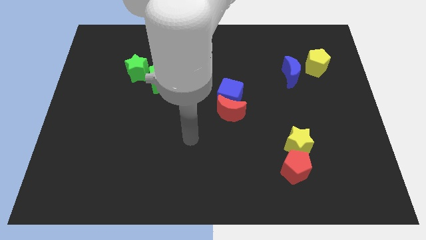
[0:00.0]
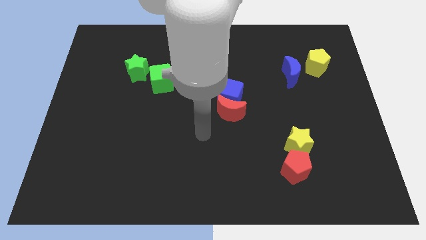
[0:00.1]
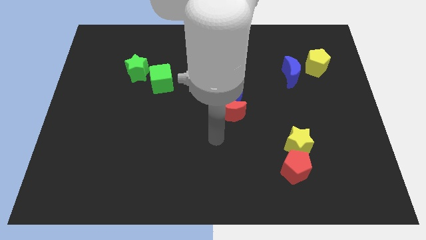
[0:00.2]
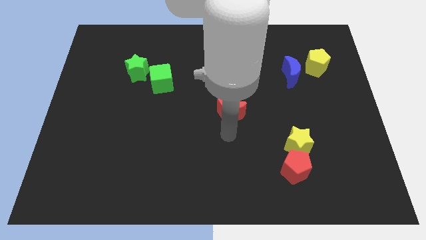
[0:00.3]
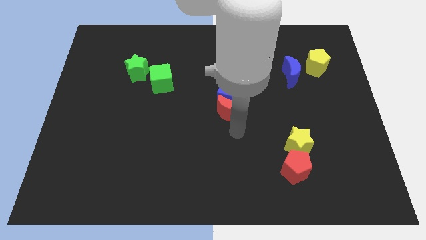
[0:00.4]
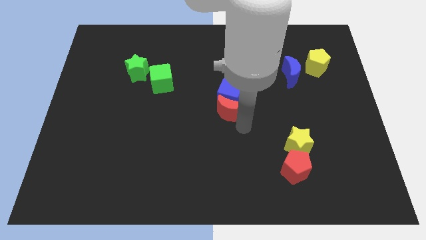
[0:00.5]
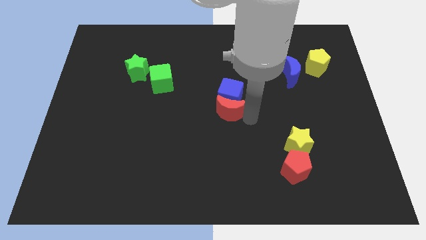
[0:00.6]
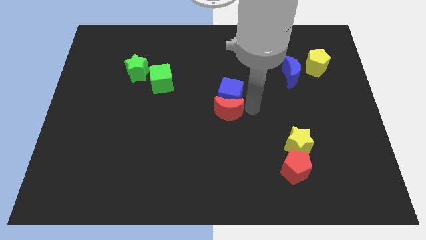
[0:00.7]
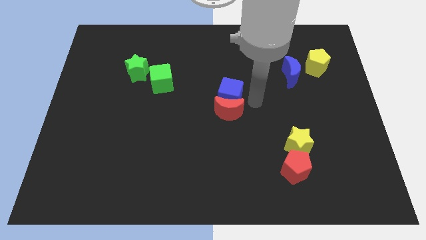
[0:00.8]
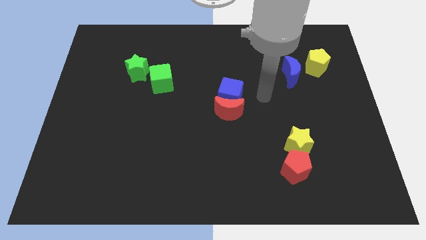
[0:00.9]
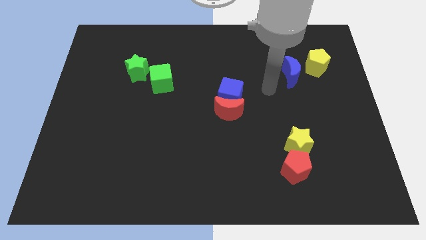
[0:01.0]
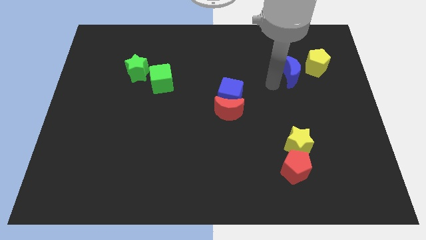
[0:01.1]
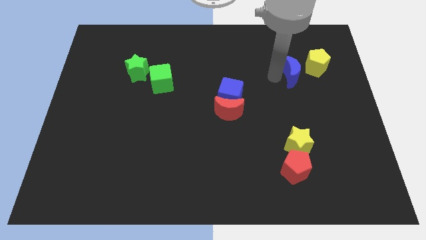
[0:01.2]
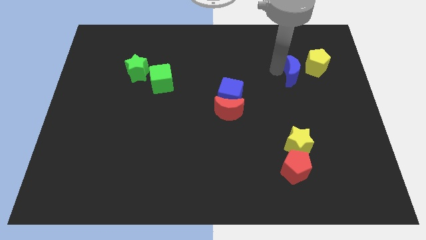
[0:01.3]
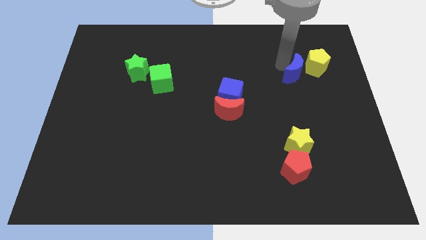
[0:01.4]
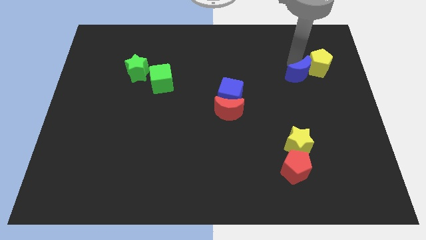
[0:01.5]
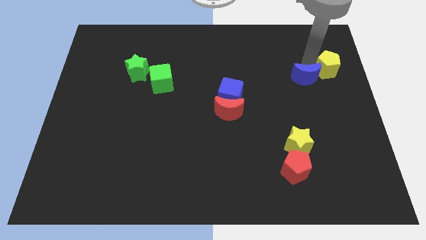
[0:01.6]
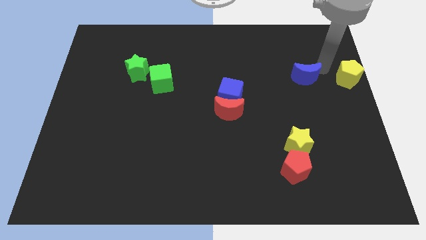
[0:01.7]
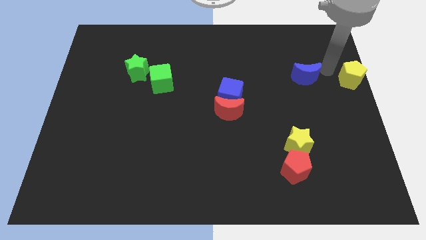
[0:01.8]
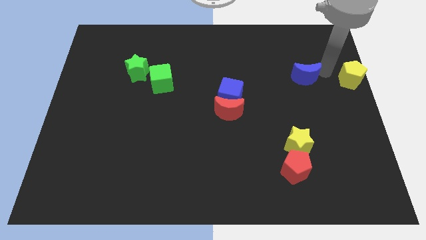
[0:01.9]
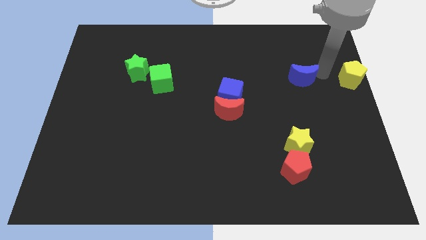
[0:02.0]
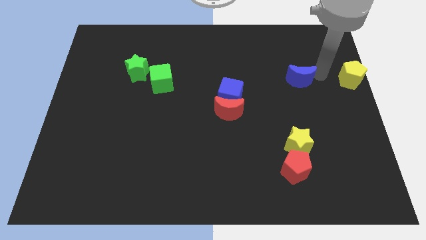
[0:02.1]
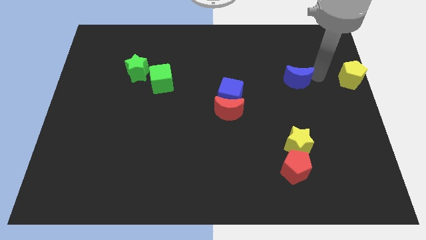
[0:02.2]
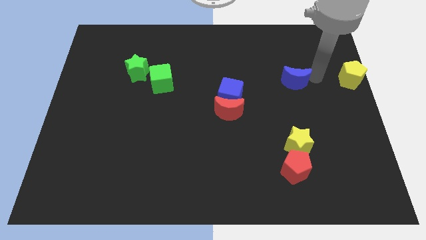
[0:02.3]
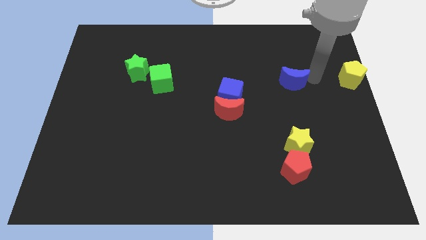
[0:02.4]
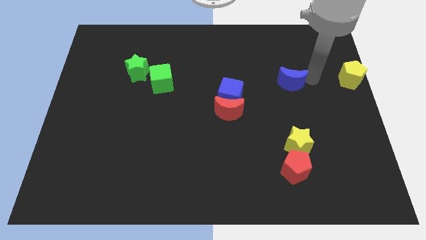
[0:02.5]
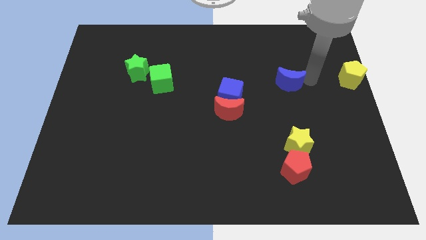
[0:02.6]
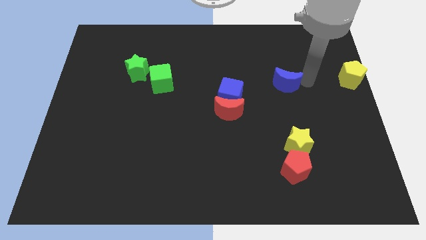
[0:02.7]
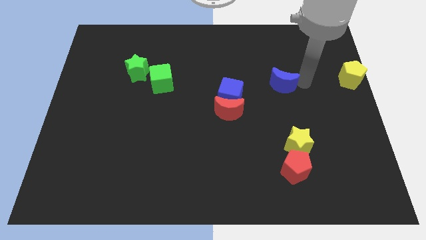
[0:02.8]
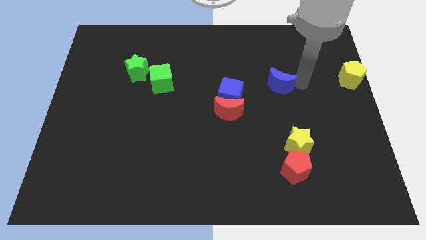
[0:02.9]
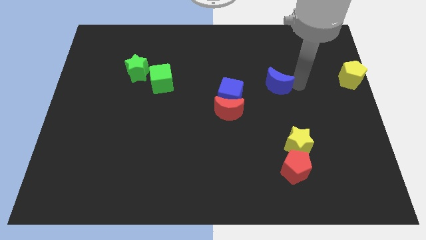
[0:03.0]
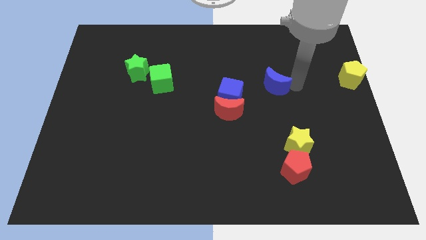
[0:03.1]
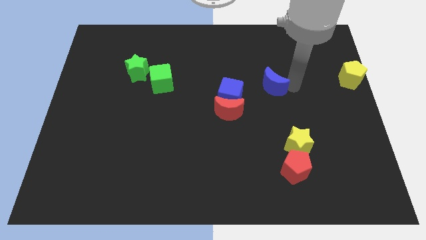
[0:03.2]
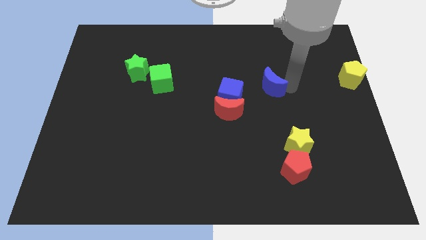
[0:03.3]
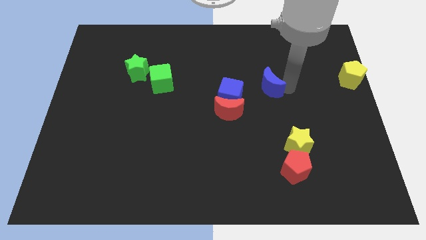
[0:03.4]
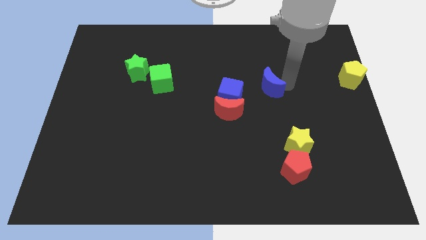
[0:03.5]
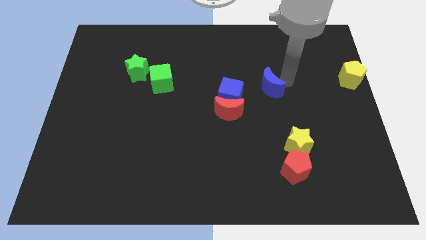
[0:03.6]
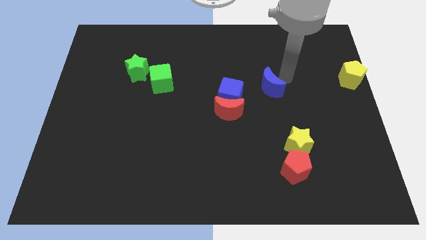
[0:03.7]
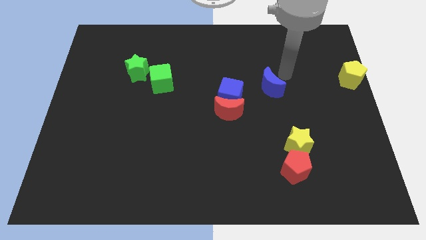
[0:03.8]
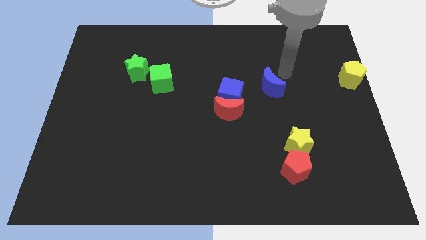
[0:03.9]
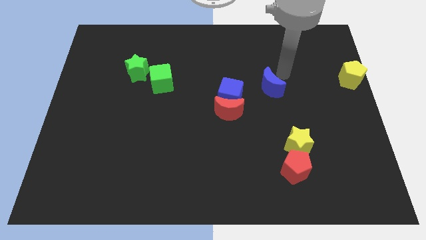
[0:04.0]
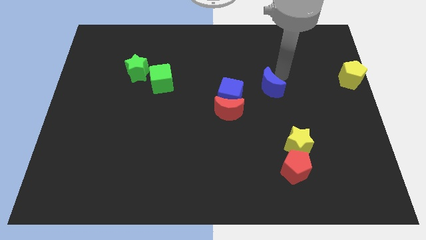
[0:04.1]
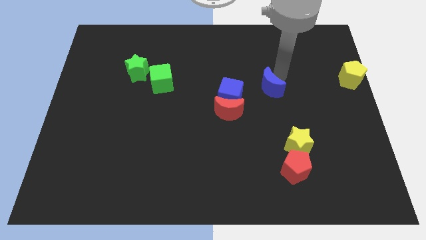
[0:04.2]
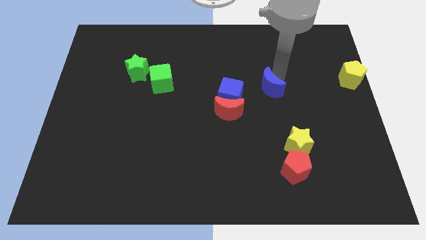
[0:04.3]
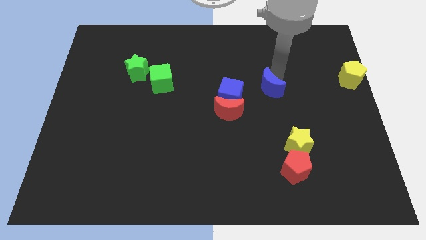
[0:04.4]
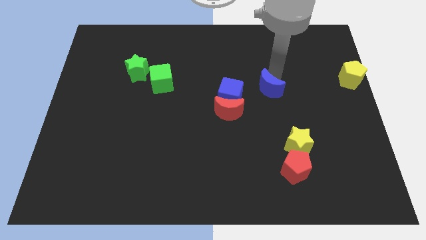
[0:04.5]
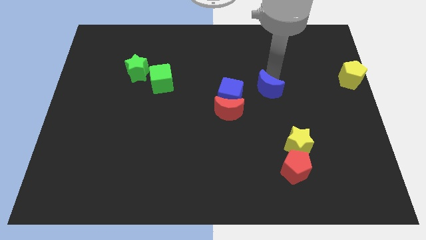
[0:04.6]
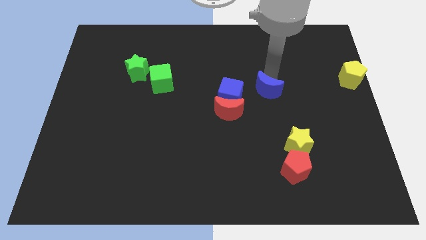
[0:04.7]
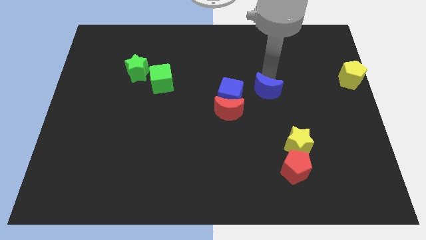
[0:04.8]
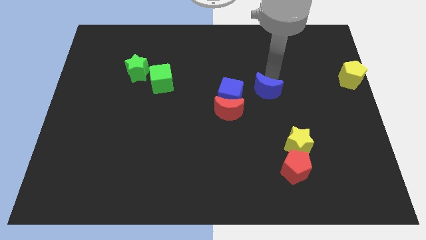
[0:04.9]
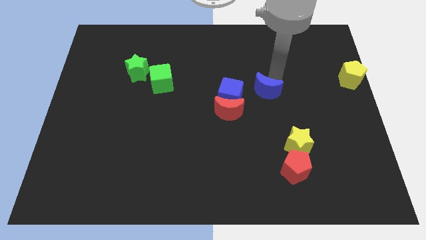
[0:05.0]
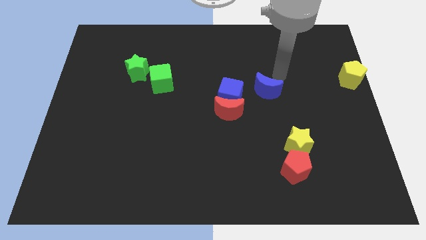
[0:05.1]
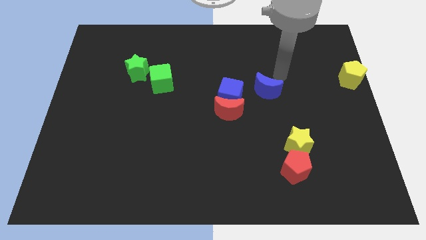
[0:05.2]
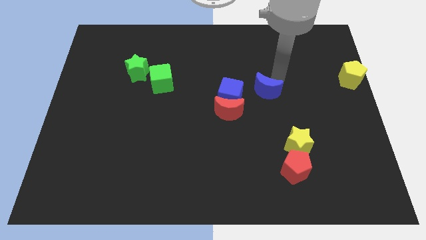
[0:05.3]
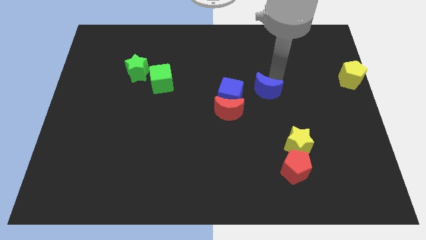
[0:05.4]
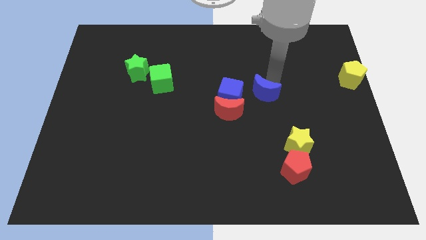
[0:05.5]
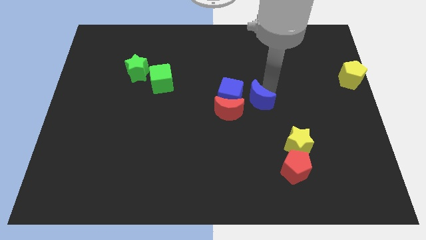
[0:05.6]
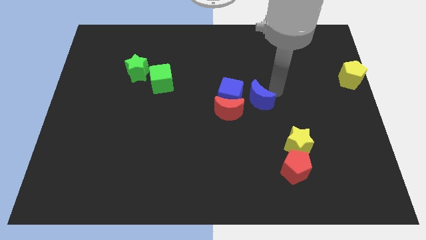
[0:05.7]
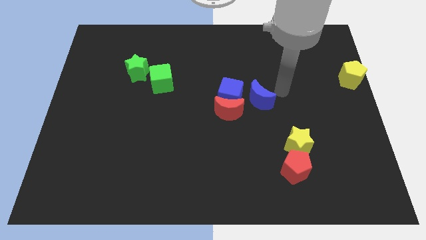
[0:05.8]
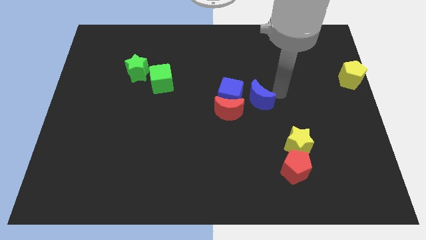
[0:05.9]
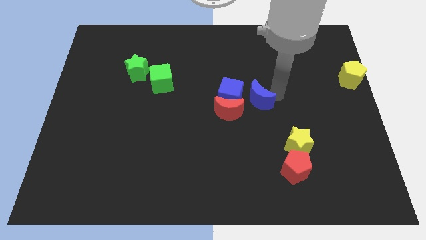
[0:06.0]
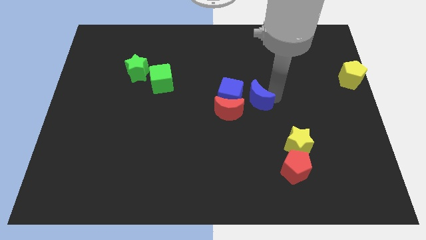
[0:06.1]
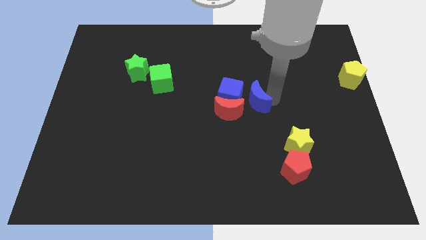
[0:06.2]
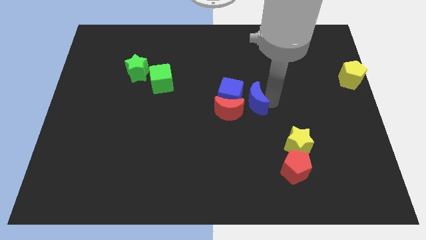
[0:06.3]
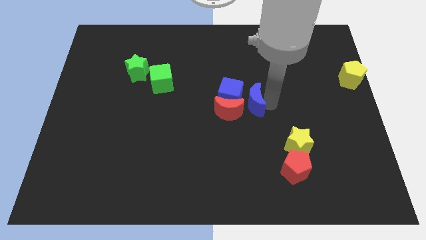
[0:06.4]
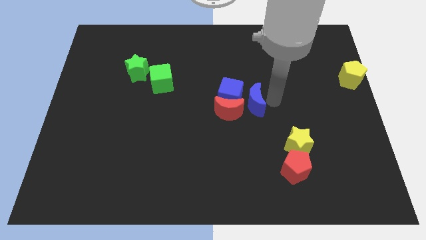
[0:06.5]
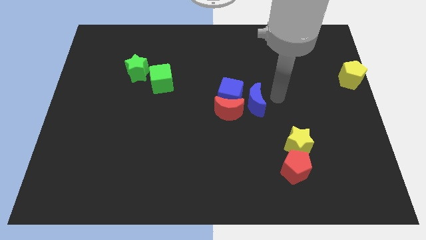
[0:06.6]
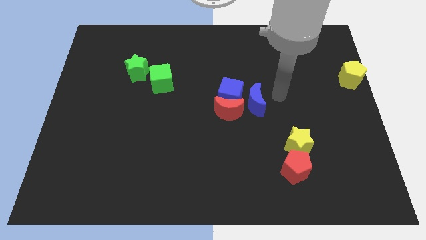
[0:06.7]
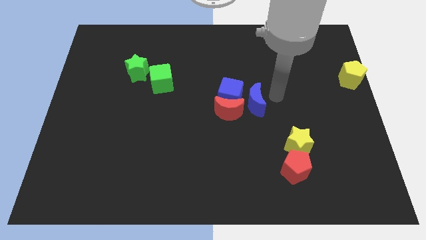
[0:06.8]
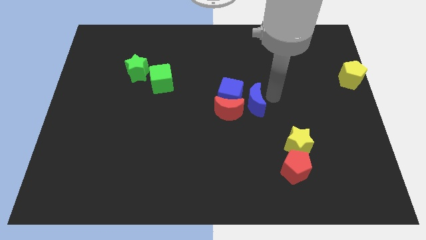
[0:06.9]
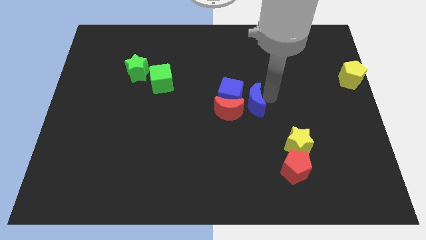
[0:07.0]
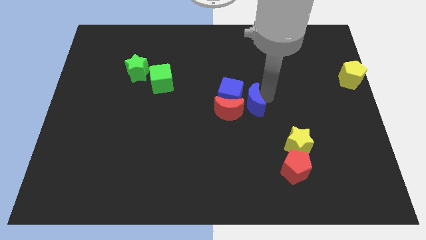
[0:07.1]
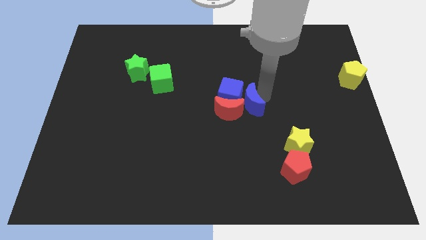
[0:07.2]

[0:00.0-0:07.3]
move the blue moon to the red moon
